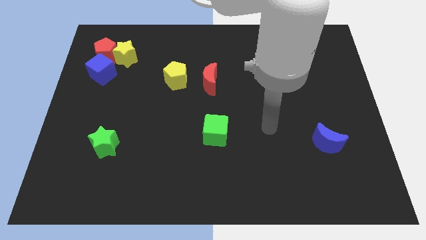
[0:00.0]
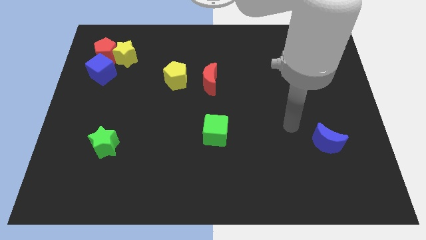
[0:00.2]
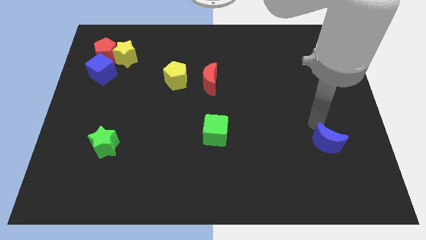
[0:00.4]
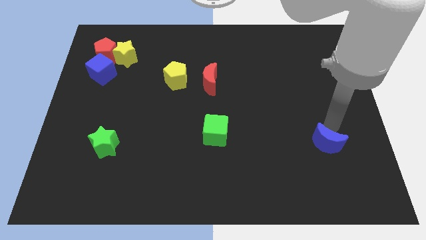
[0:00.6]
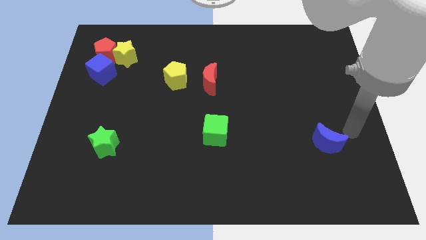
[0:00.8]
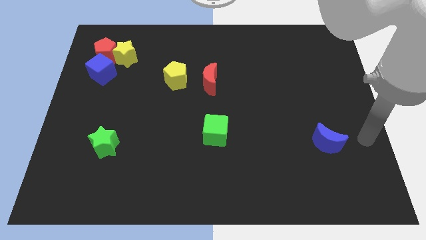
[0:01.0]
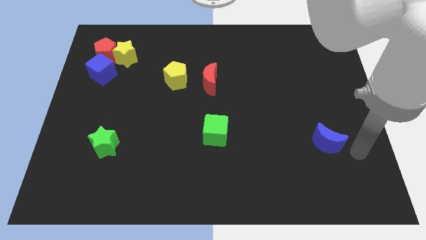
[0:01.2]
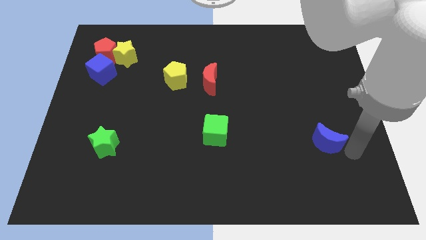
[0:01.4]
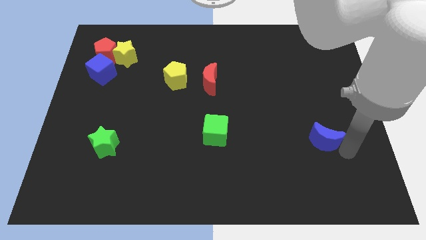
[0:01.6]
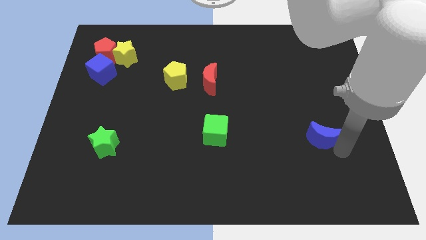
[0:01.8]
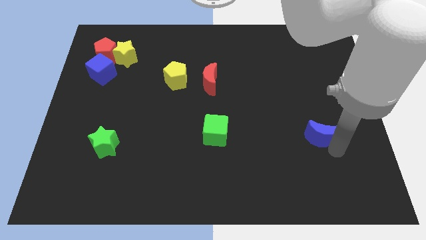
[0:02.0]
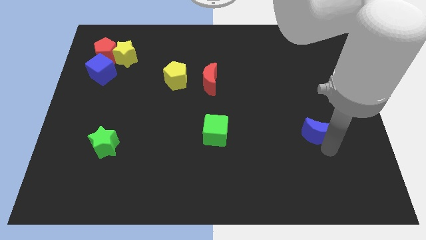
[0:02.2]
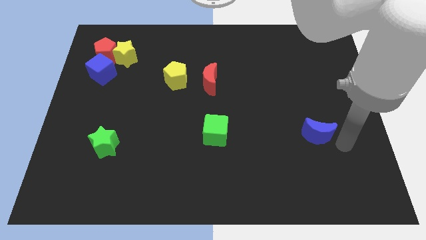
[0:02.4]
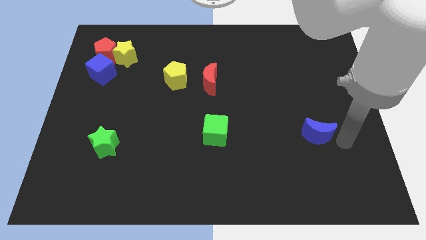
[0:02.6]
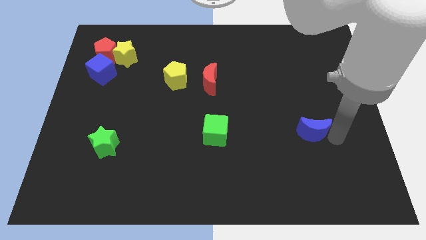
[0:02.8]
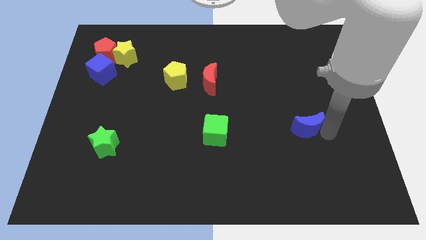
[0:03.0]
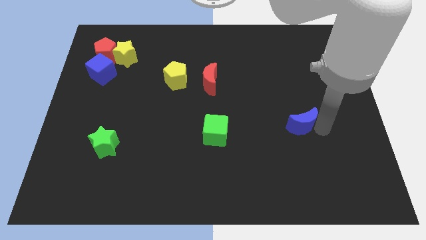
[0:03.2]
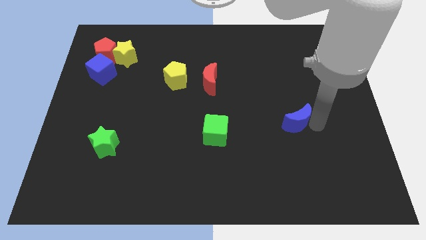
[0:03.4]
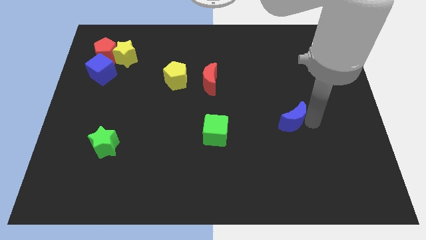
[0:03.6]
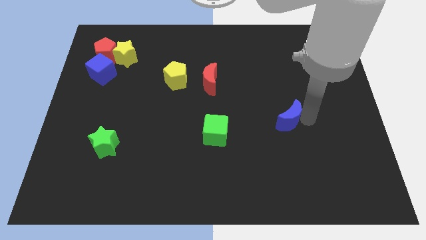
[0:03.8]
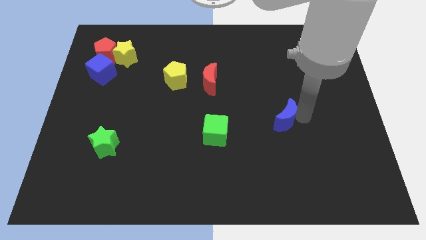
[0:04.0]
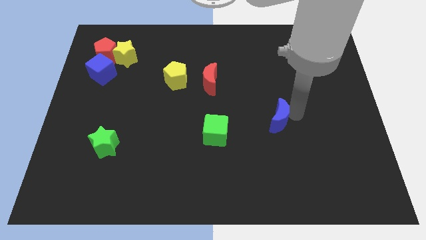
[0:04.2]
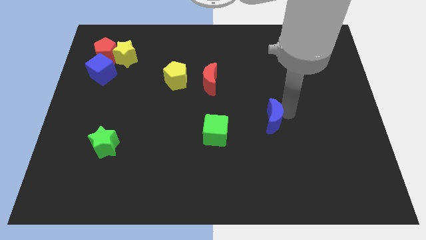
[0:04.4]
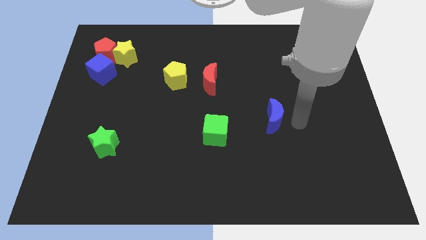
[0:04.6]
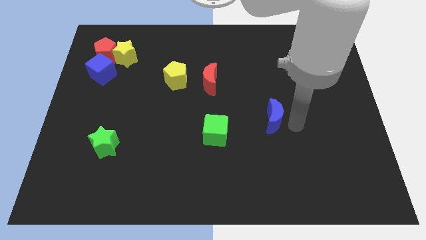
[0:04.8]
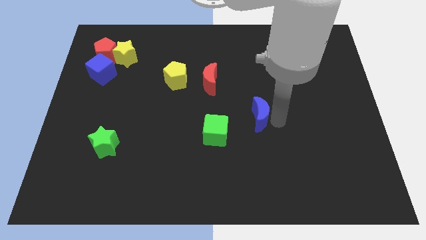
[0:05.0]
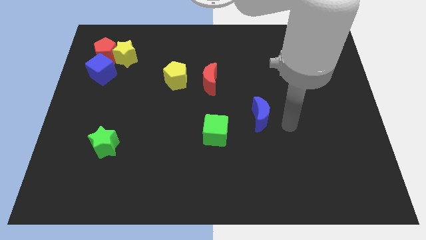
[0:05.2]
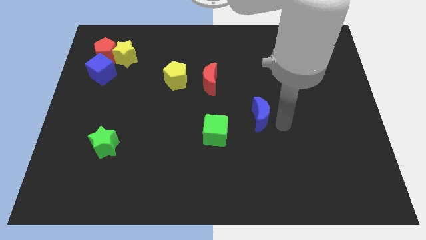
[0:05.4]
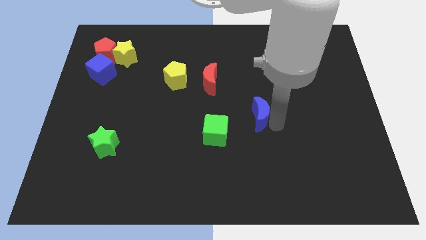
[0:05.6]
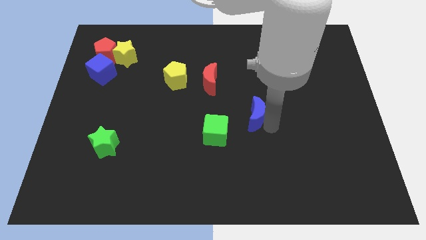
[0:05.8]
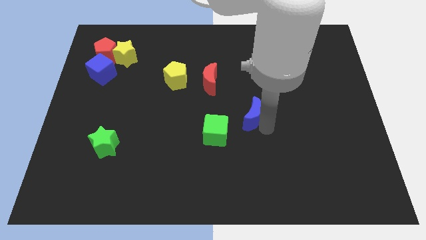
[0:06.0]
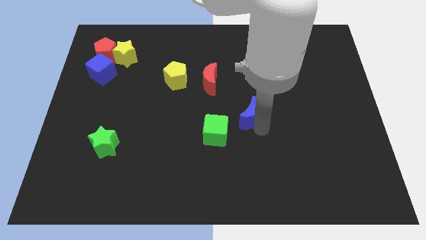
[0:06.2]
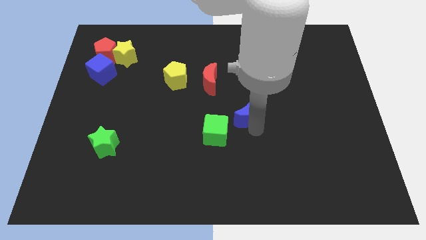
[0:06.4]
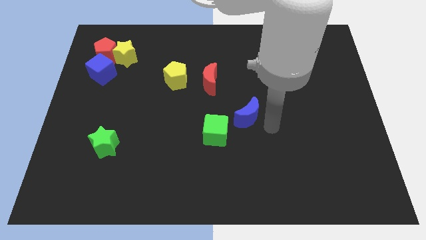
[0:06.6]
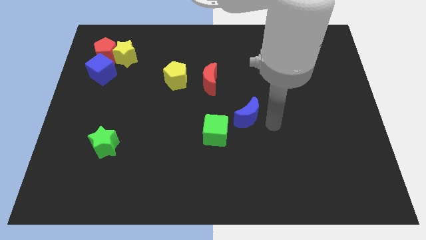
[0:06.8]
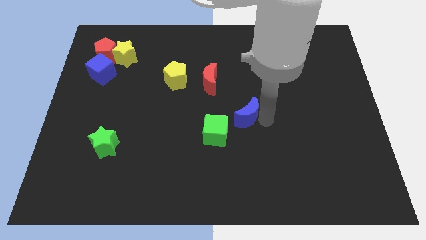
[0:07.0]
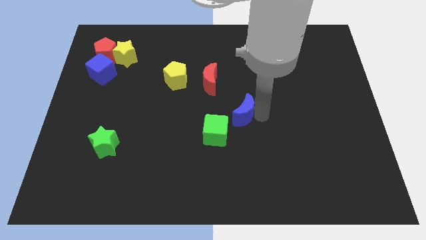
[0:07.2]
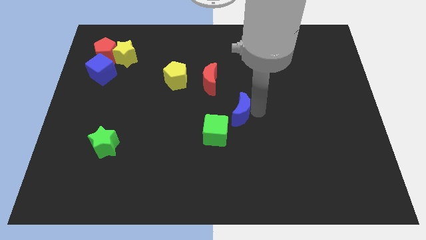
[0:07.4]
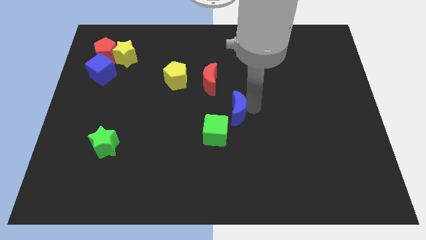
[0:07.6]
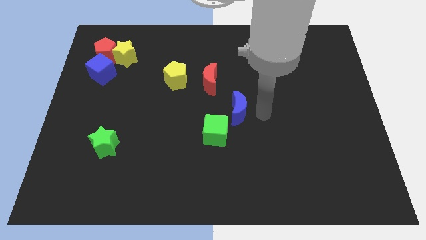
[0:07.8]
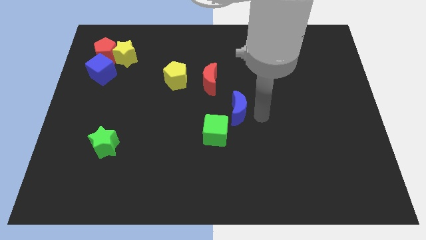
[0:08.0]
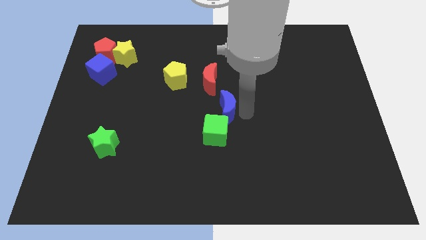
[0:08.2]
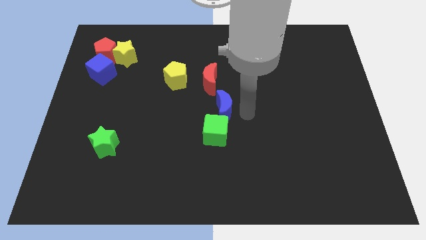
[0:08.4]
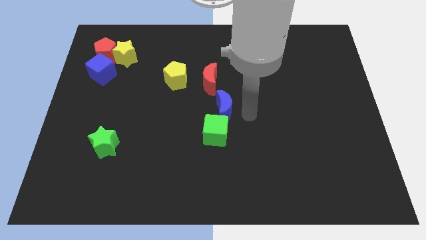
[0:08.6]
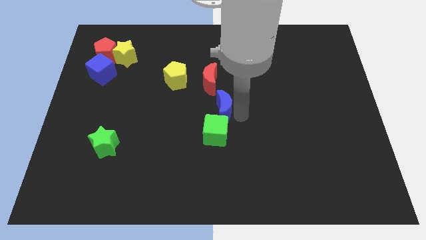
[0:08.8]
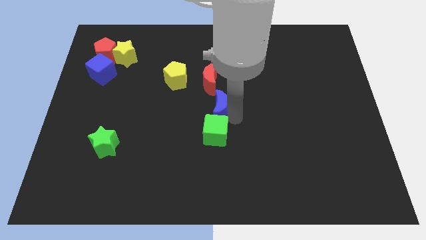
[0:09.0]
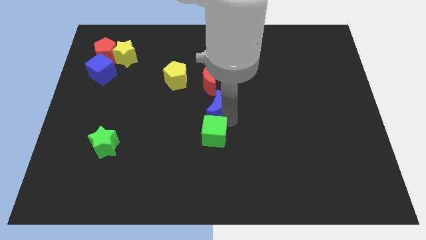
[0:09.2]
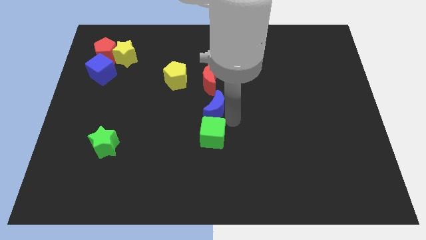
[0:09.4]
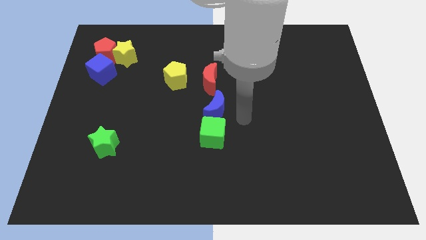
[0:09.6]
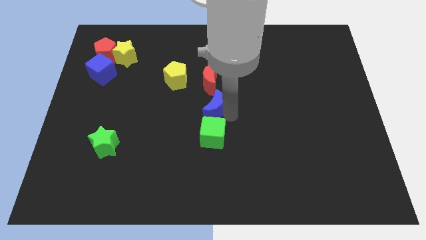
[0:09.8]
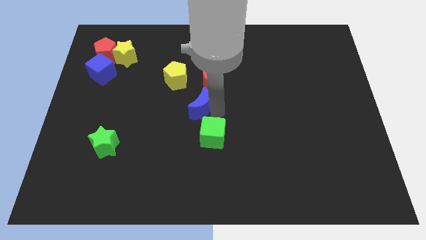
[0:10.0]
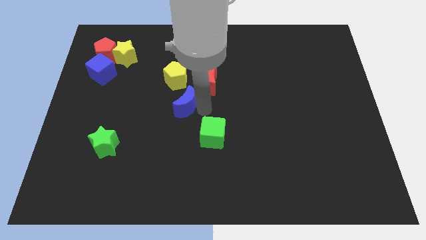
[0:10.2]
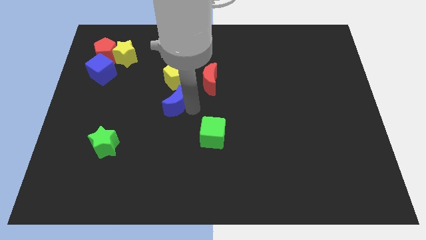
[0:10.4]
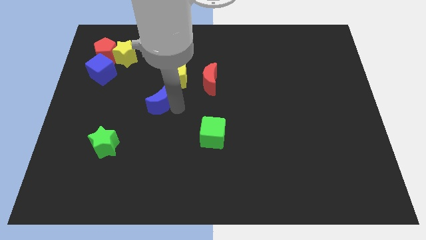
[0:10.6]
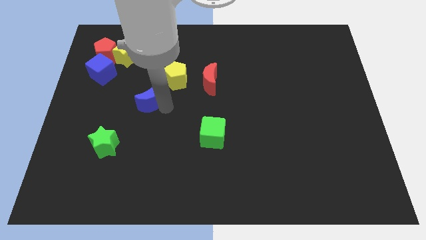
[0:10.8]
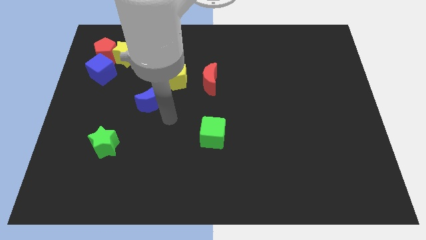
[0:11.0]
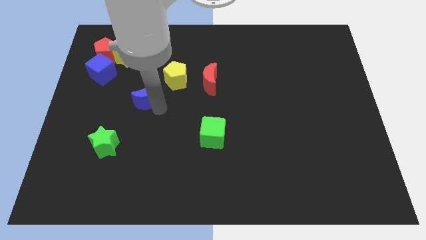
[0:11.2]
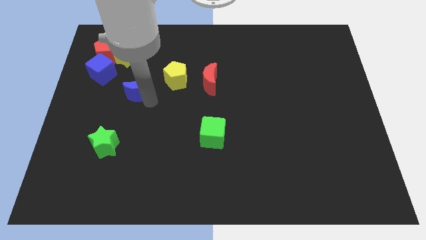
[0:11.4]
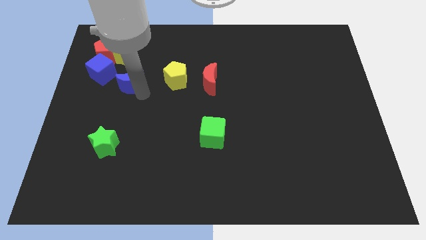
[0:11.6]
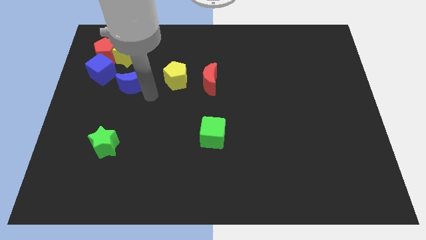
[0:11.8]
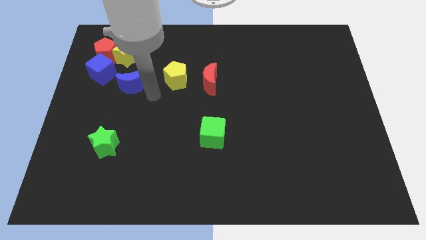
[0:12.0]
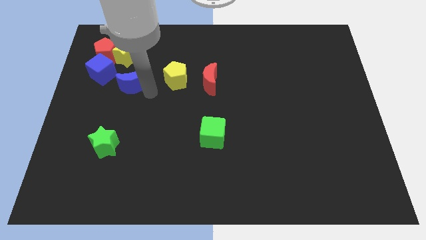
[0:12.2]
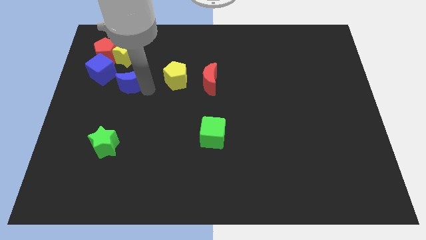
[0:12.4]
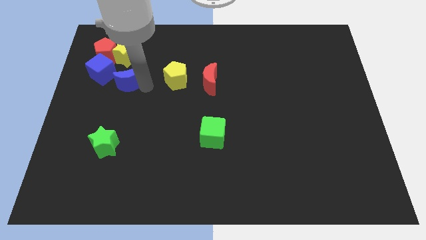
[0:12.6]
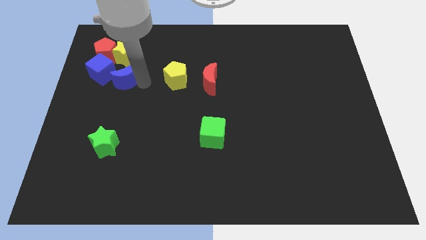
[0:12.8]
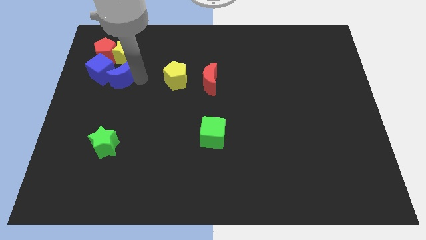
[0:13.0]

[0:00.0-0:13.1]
move the blue moon towards the blue cube

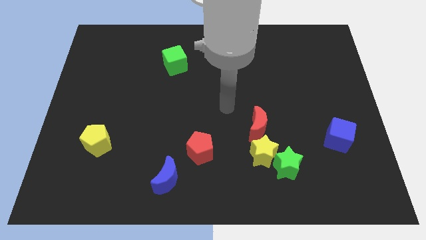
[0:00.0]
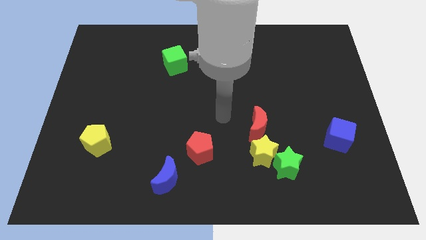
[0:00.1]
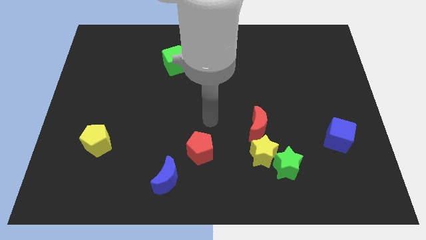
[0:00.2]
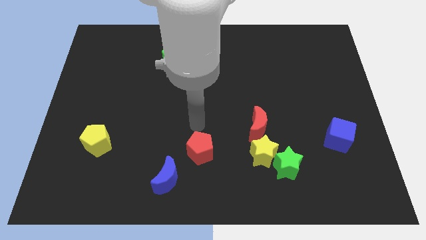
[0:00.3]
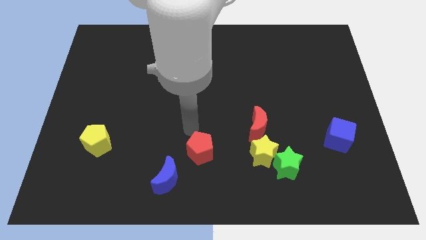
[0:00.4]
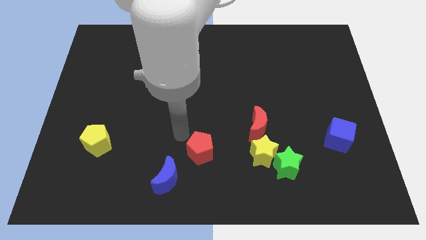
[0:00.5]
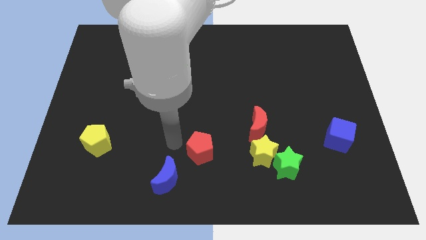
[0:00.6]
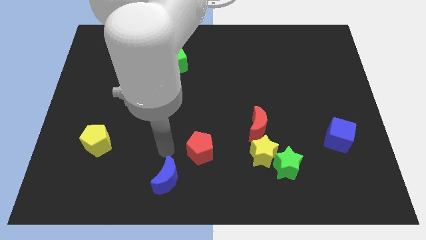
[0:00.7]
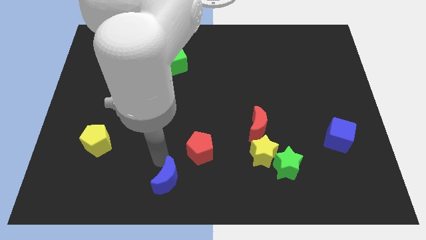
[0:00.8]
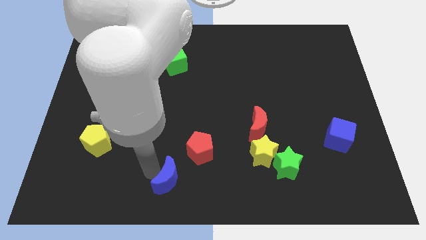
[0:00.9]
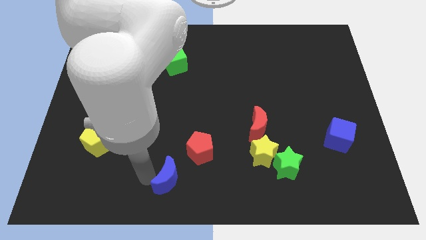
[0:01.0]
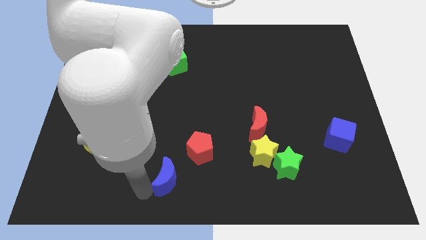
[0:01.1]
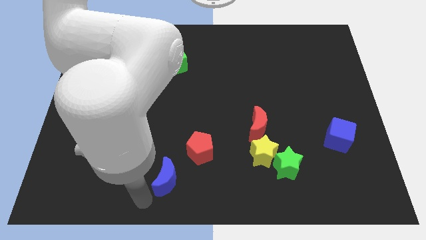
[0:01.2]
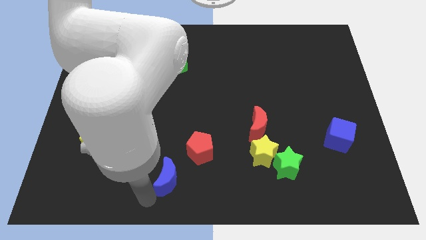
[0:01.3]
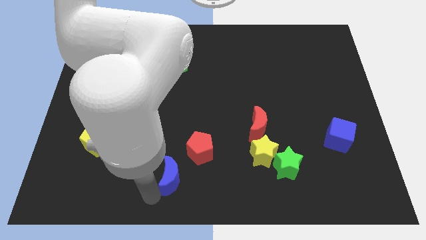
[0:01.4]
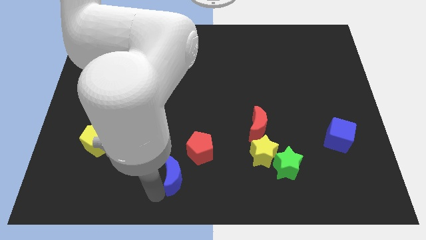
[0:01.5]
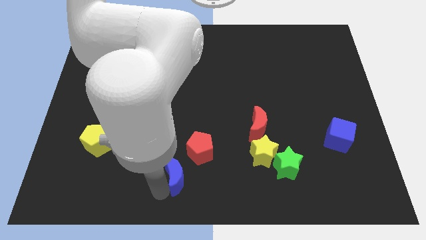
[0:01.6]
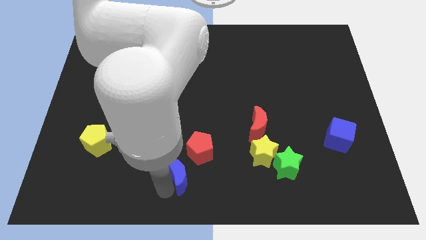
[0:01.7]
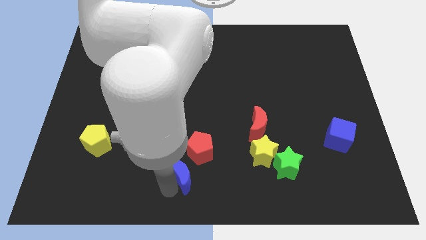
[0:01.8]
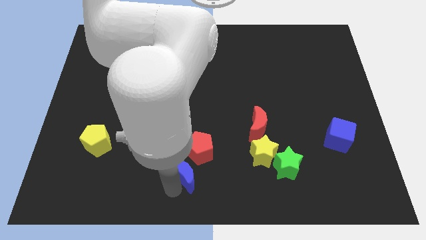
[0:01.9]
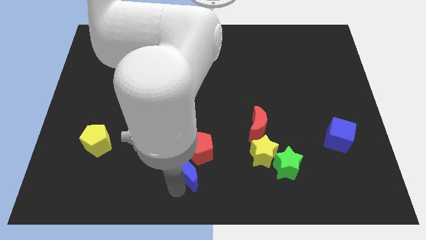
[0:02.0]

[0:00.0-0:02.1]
slide the blue moon towards the red pentagon
